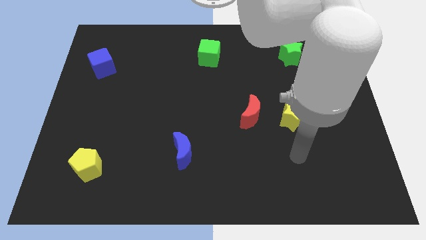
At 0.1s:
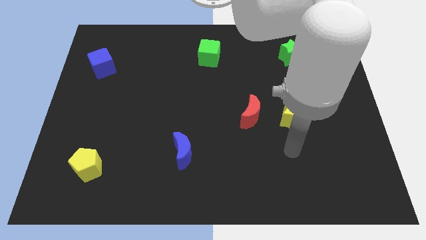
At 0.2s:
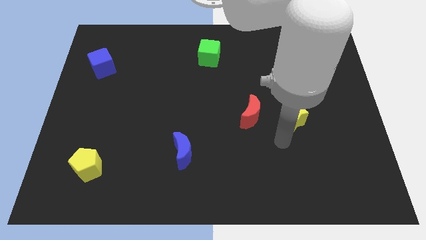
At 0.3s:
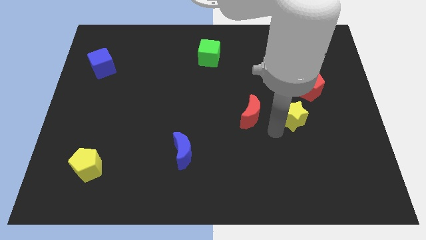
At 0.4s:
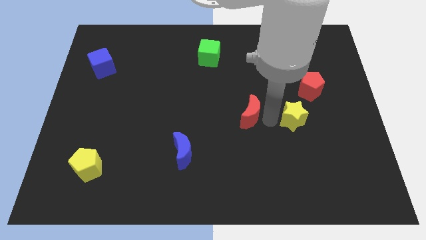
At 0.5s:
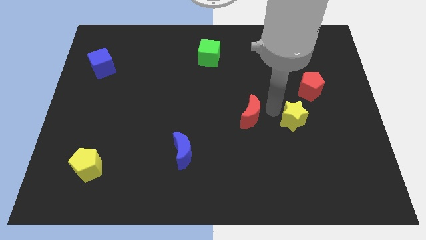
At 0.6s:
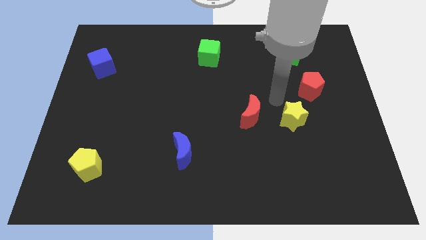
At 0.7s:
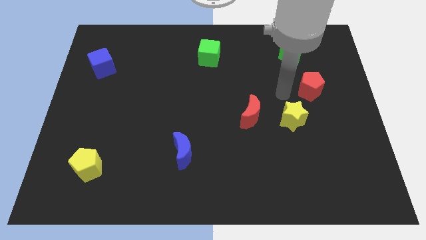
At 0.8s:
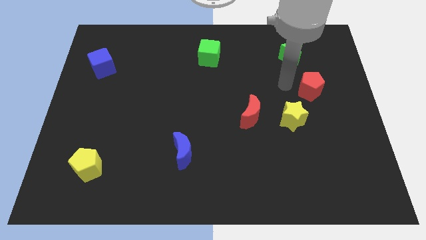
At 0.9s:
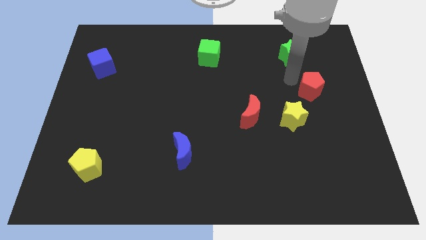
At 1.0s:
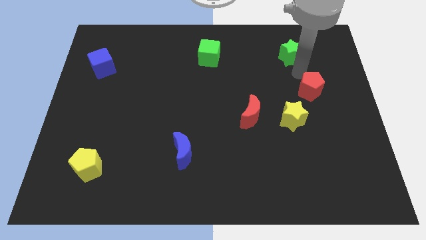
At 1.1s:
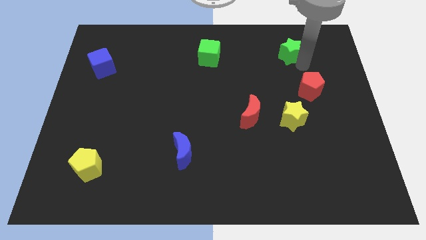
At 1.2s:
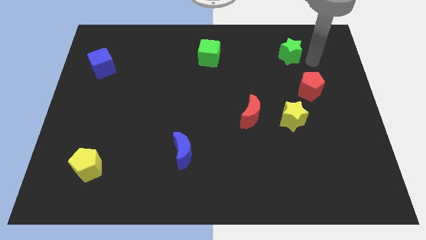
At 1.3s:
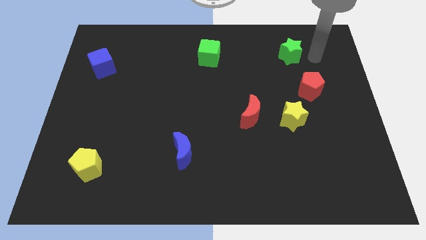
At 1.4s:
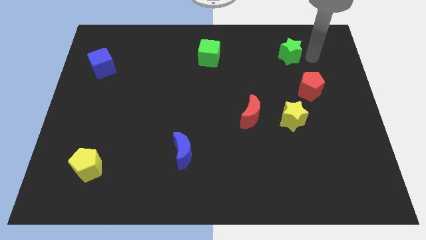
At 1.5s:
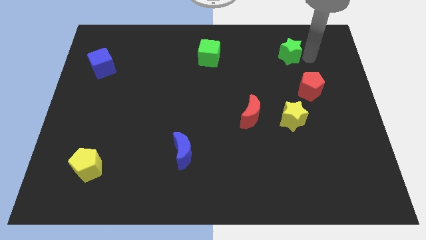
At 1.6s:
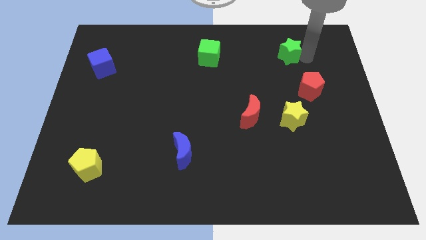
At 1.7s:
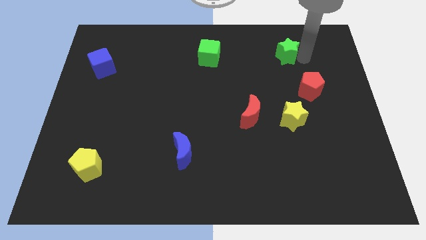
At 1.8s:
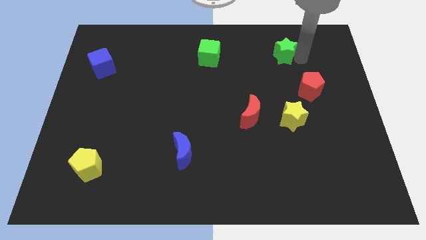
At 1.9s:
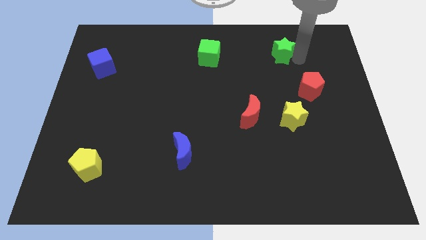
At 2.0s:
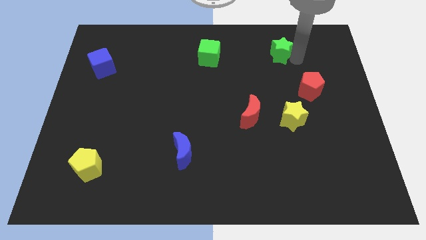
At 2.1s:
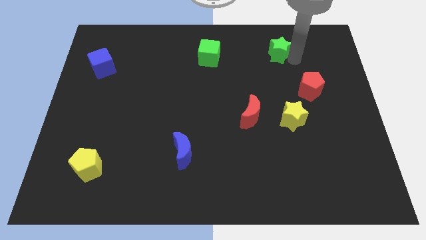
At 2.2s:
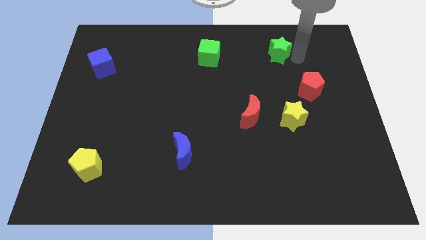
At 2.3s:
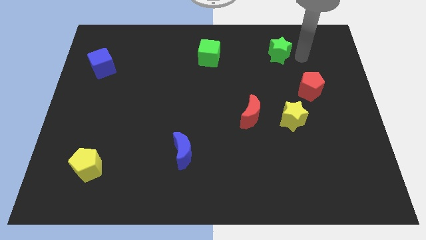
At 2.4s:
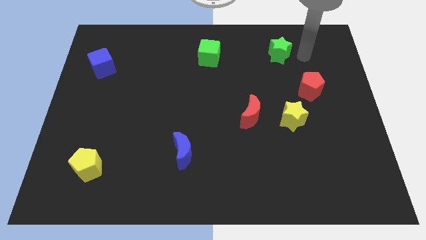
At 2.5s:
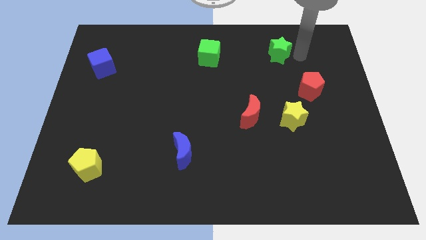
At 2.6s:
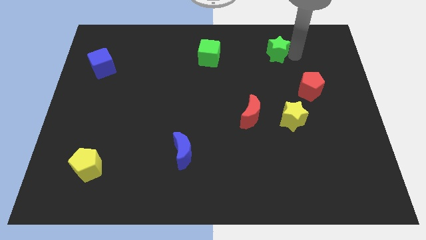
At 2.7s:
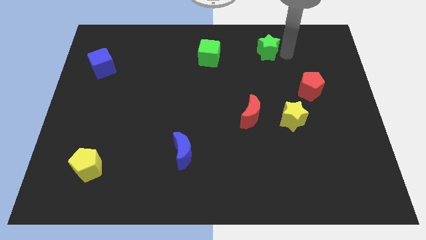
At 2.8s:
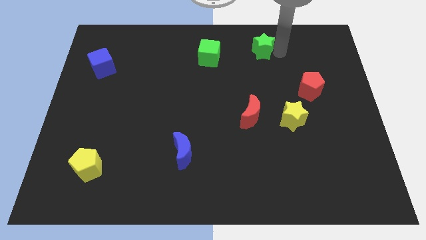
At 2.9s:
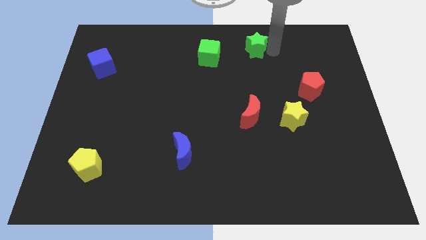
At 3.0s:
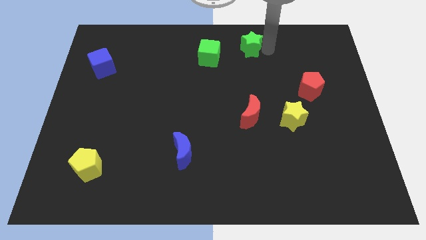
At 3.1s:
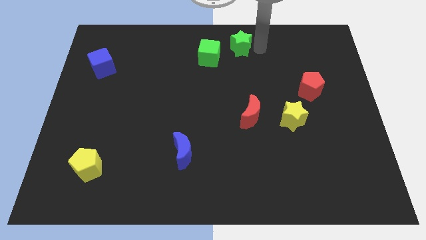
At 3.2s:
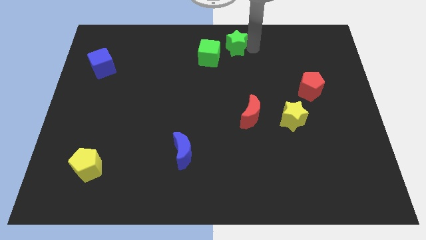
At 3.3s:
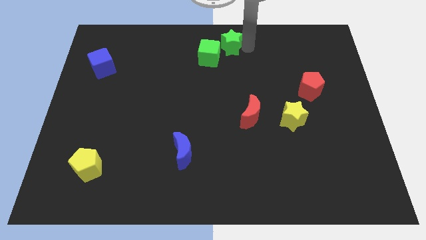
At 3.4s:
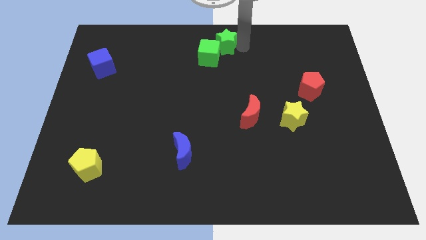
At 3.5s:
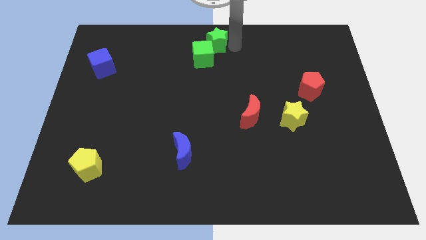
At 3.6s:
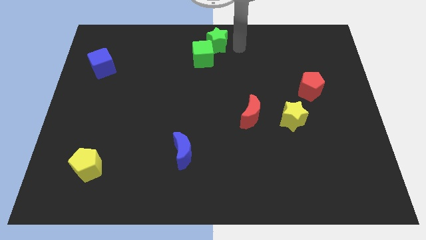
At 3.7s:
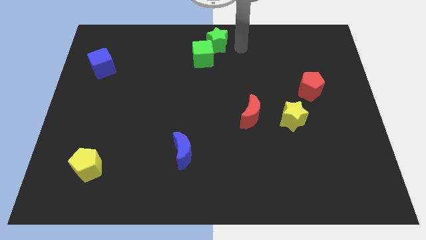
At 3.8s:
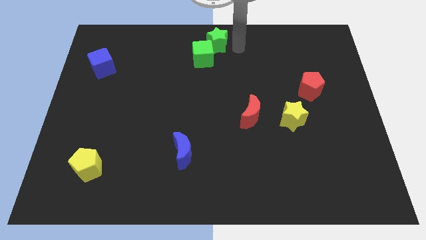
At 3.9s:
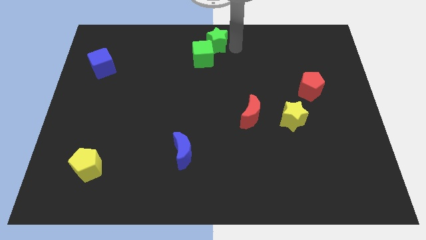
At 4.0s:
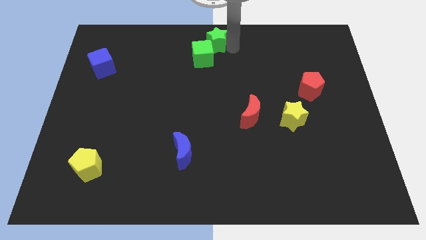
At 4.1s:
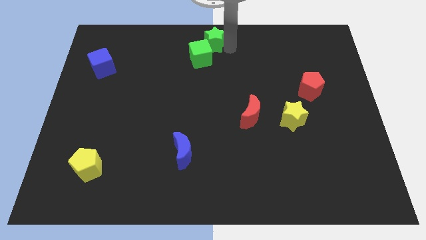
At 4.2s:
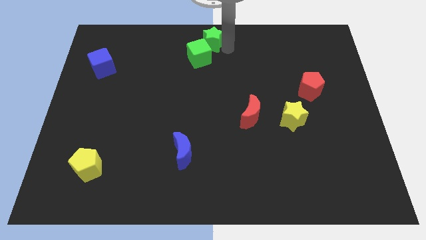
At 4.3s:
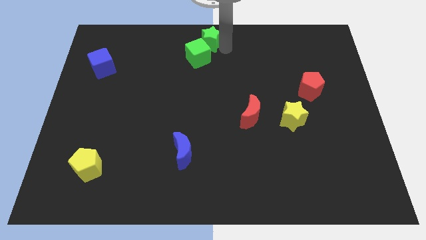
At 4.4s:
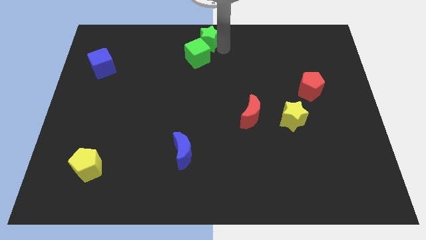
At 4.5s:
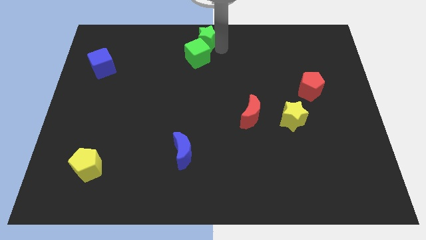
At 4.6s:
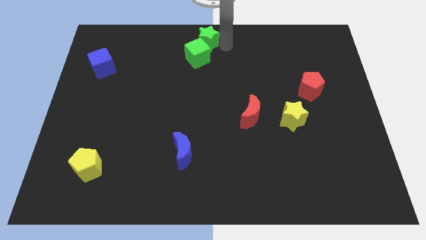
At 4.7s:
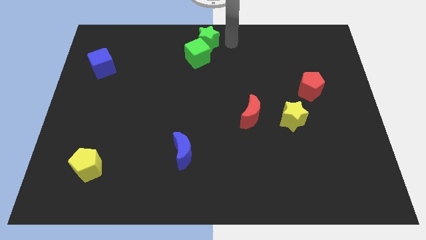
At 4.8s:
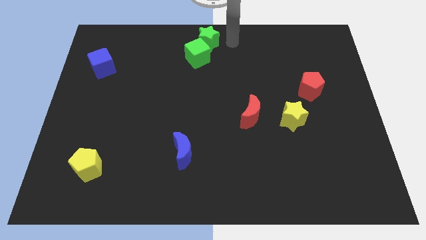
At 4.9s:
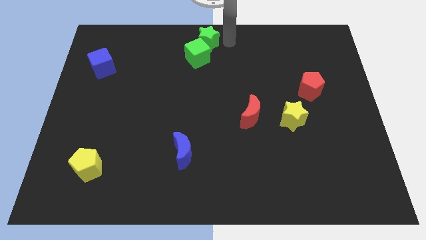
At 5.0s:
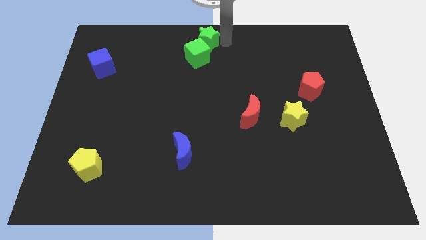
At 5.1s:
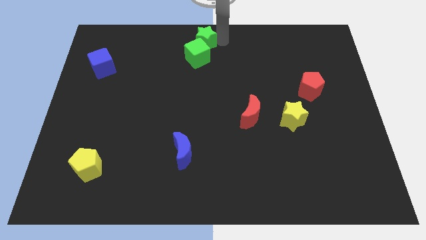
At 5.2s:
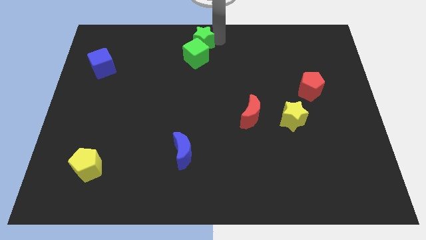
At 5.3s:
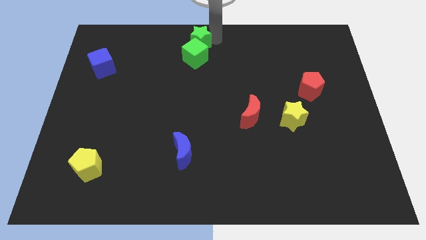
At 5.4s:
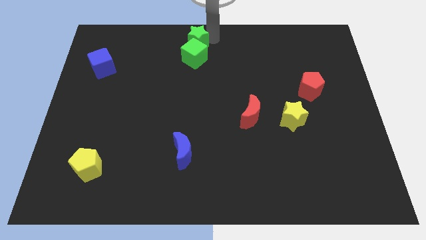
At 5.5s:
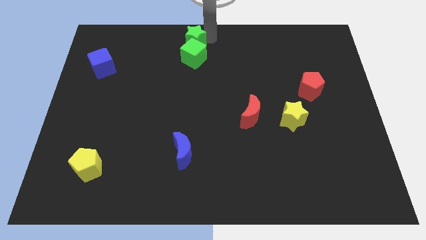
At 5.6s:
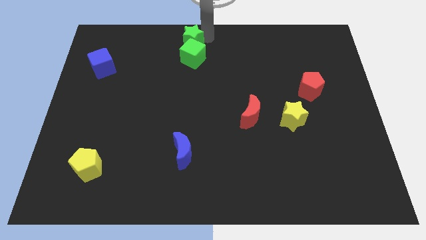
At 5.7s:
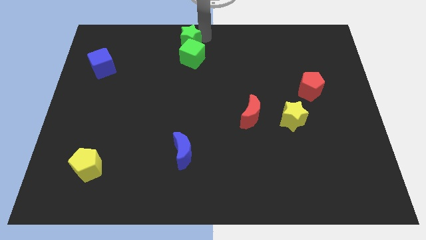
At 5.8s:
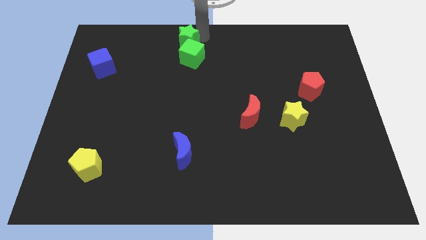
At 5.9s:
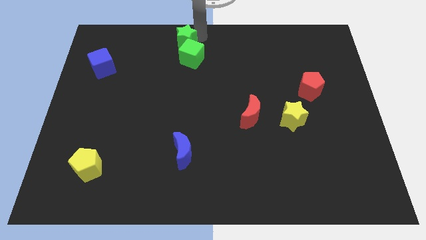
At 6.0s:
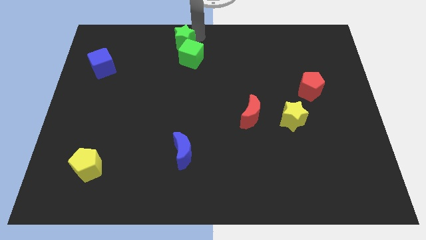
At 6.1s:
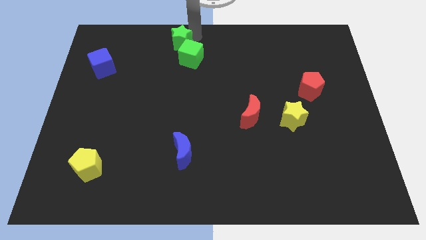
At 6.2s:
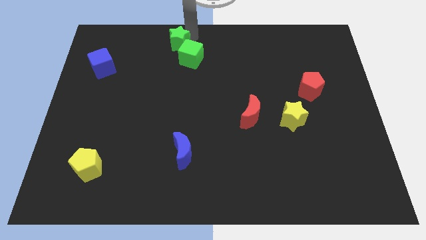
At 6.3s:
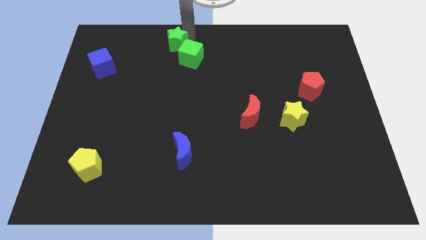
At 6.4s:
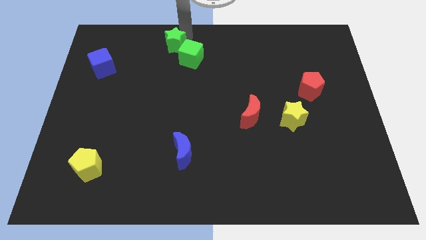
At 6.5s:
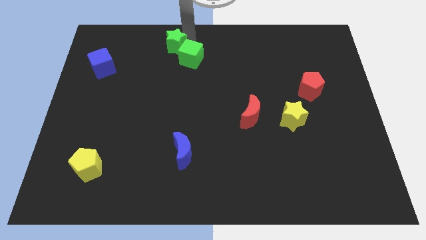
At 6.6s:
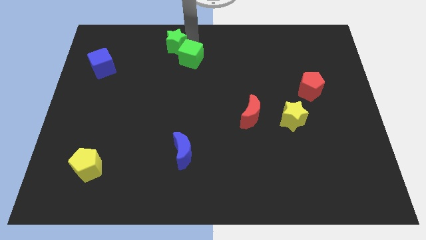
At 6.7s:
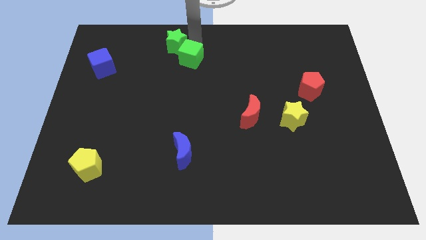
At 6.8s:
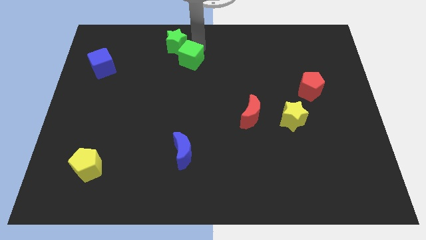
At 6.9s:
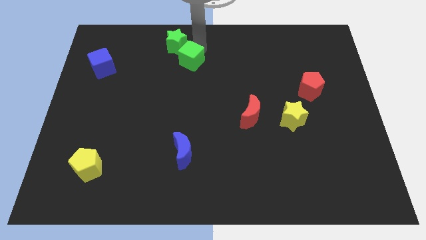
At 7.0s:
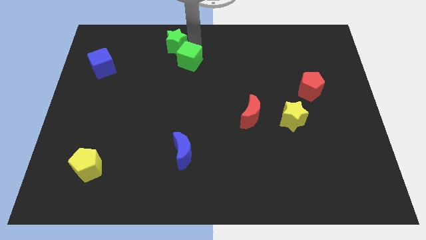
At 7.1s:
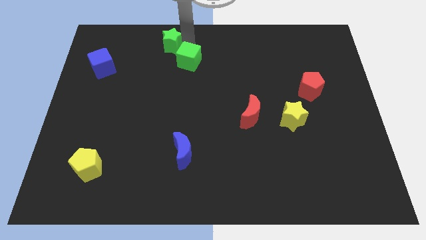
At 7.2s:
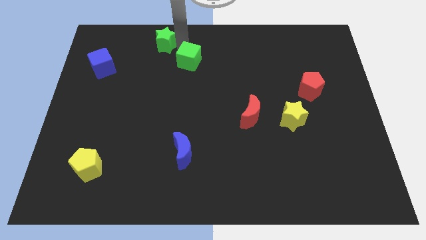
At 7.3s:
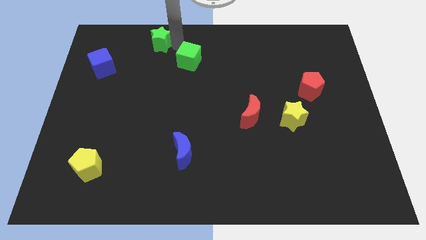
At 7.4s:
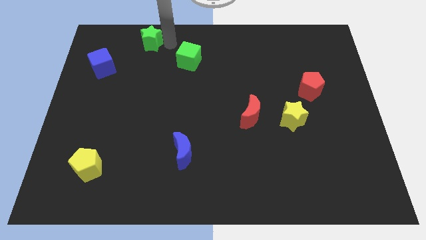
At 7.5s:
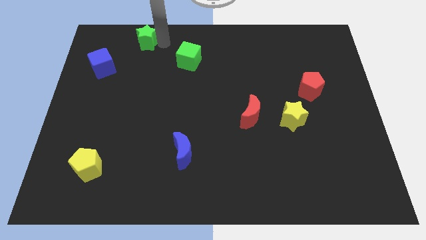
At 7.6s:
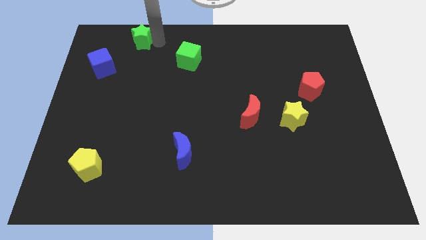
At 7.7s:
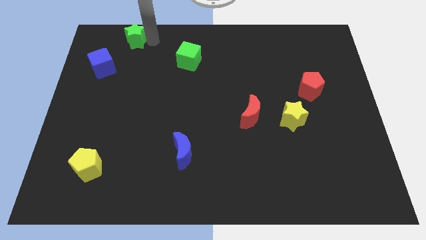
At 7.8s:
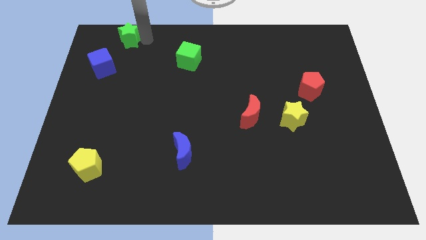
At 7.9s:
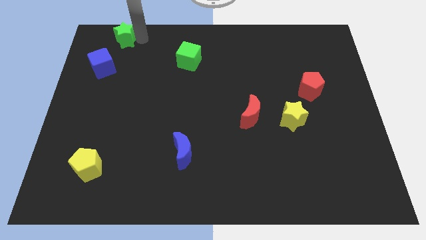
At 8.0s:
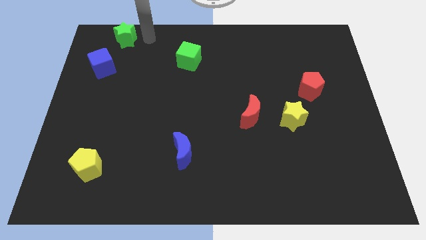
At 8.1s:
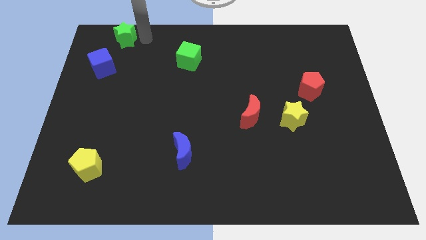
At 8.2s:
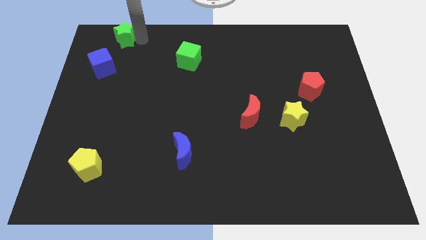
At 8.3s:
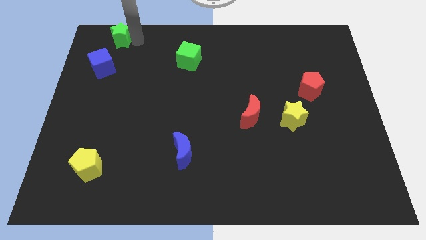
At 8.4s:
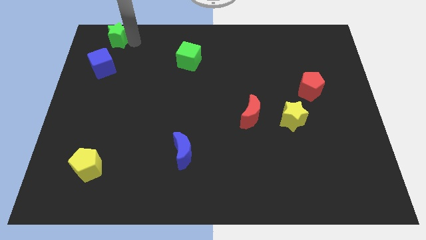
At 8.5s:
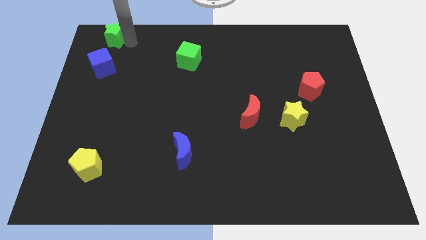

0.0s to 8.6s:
put the green star to the top left of the board
